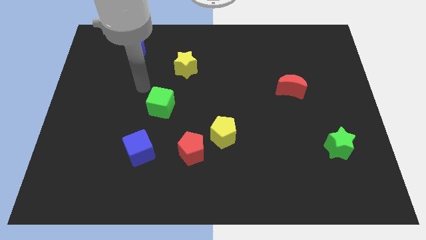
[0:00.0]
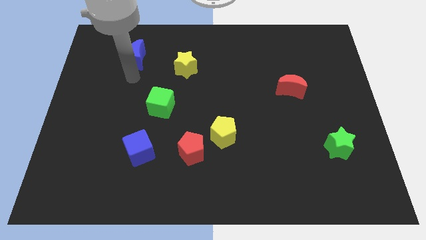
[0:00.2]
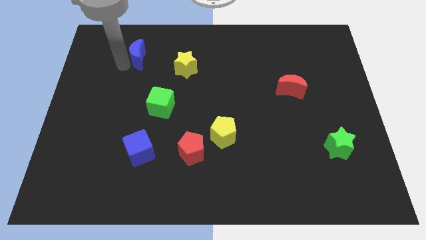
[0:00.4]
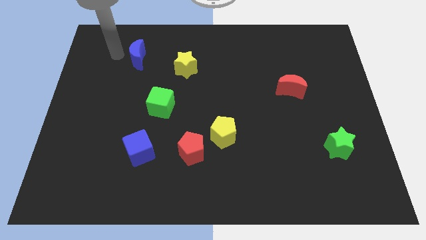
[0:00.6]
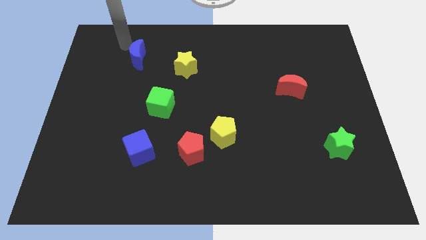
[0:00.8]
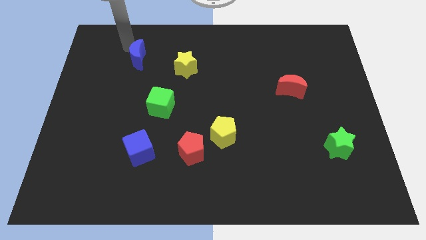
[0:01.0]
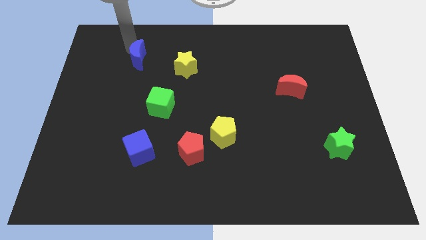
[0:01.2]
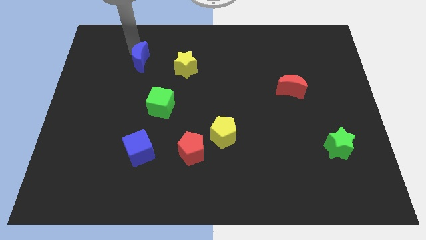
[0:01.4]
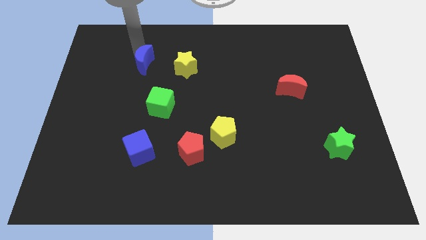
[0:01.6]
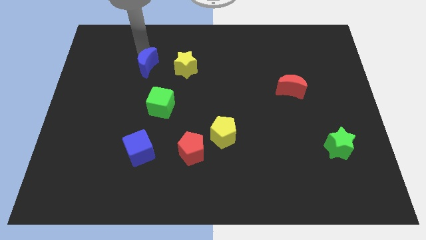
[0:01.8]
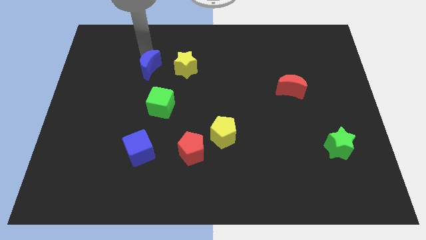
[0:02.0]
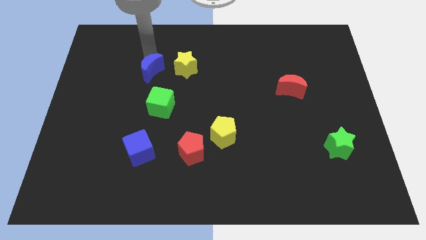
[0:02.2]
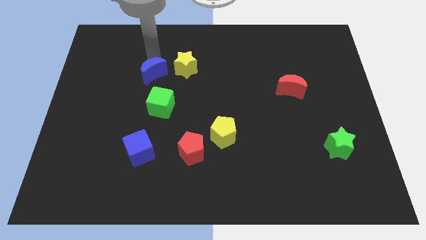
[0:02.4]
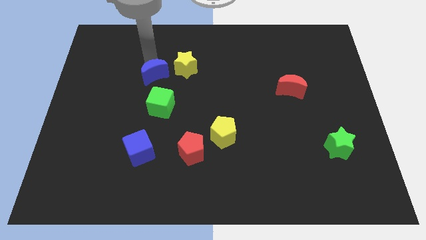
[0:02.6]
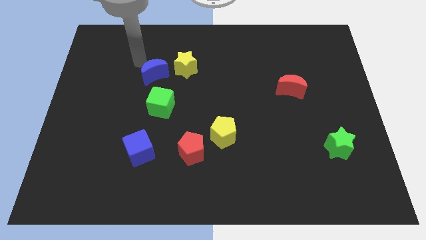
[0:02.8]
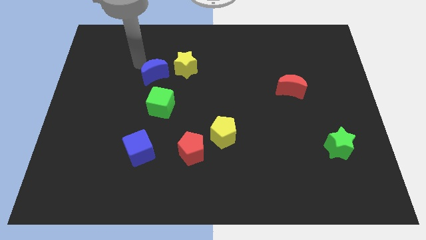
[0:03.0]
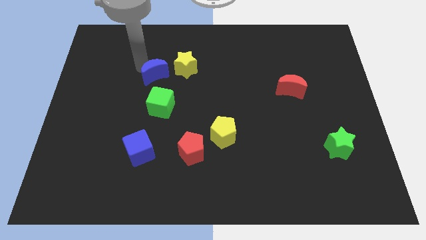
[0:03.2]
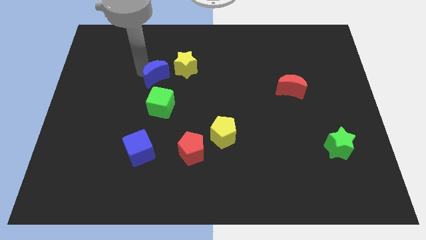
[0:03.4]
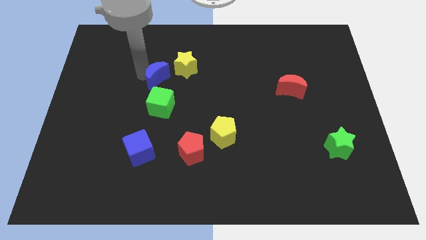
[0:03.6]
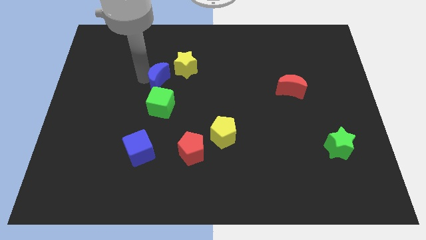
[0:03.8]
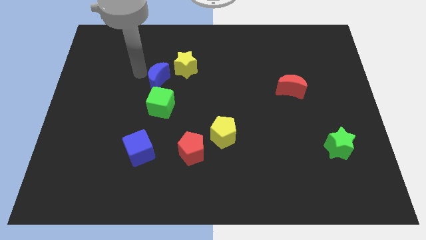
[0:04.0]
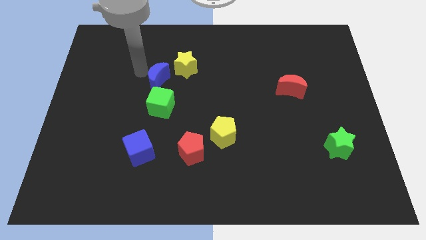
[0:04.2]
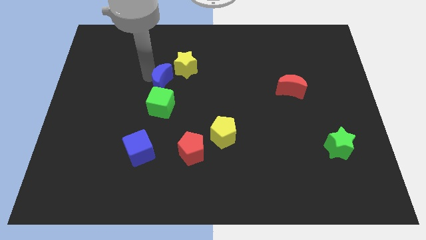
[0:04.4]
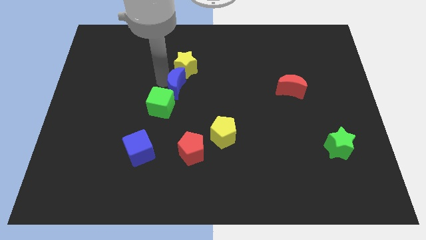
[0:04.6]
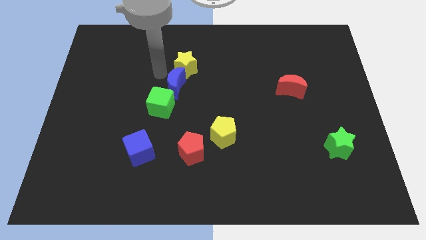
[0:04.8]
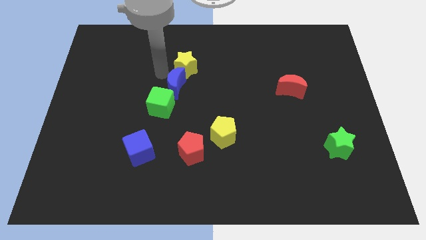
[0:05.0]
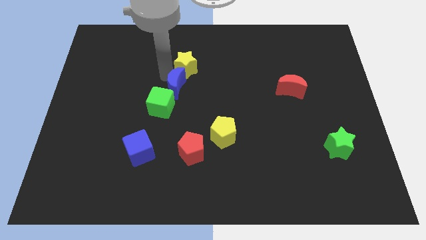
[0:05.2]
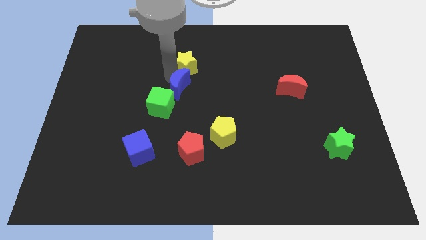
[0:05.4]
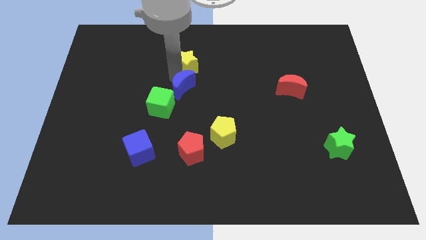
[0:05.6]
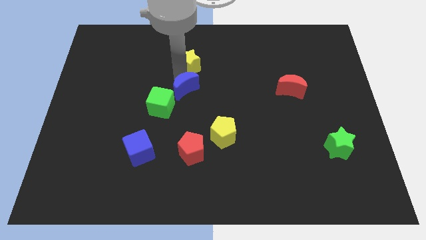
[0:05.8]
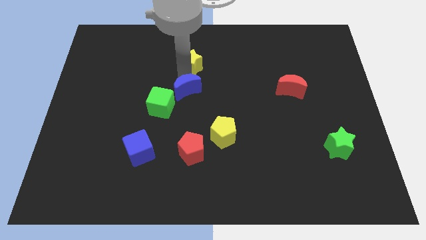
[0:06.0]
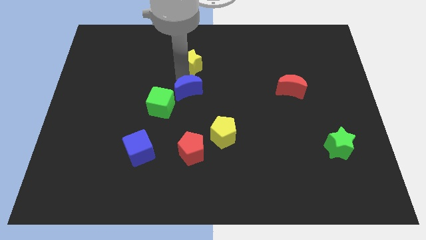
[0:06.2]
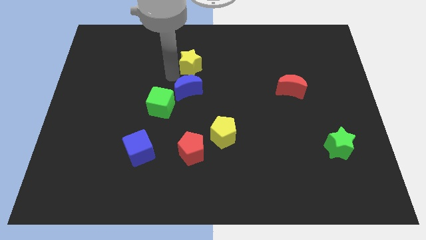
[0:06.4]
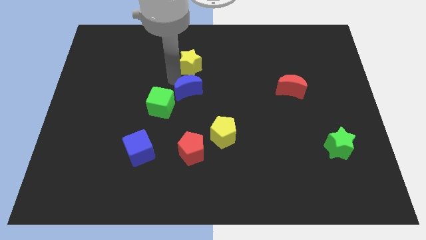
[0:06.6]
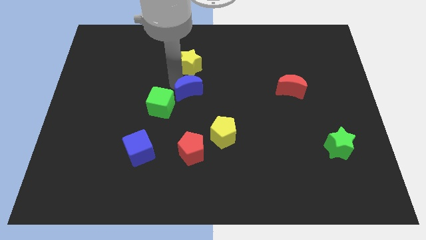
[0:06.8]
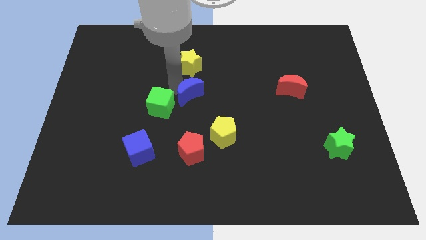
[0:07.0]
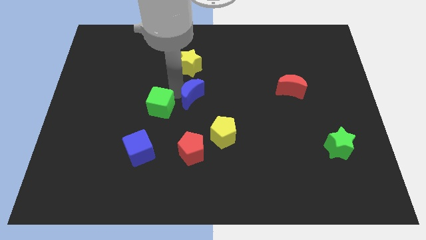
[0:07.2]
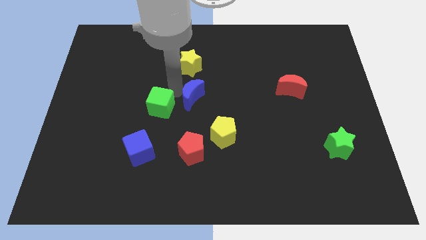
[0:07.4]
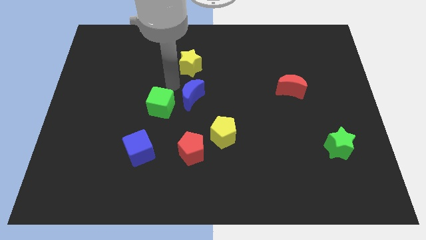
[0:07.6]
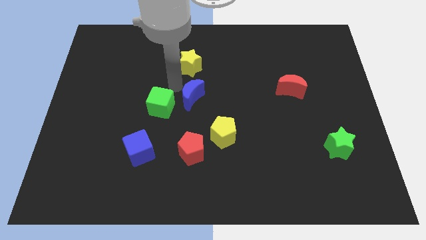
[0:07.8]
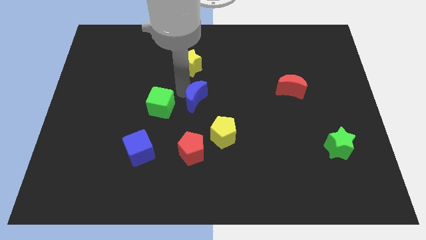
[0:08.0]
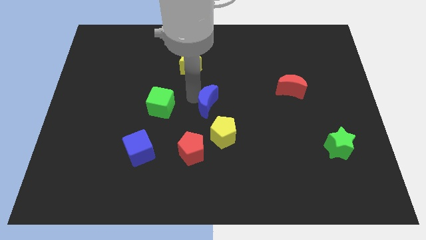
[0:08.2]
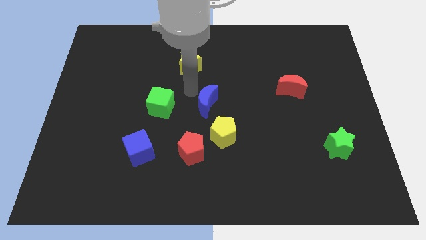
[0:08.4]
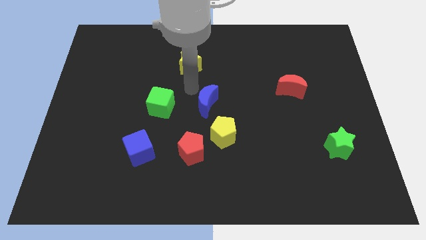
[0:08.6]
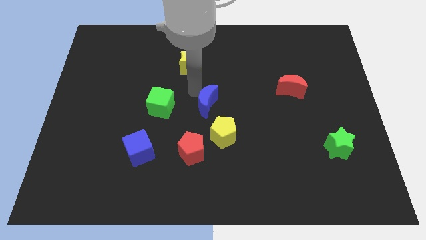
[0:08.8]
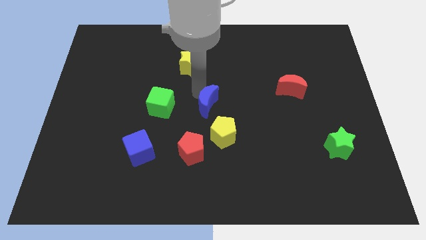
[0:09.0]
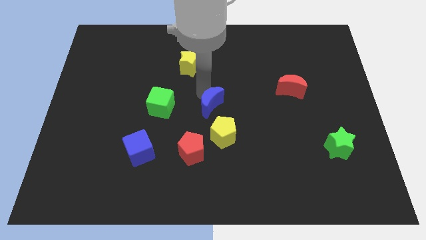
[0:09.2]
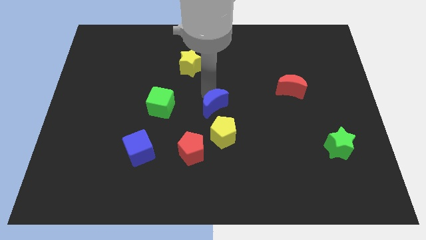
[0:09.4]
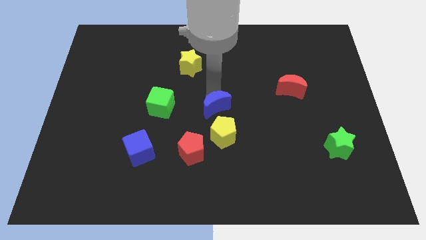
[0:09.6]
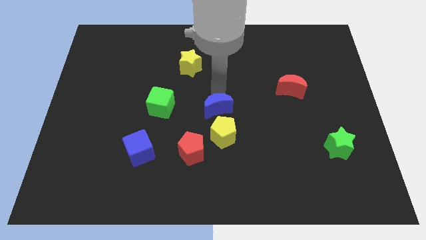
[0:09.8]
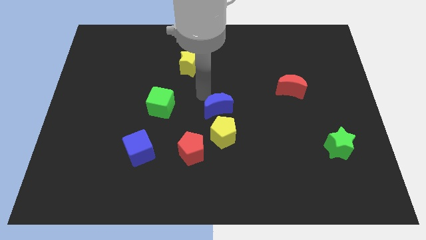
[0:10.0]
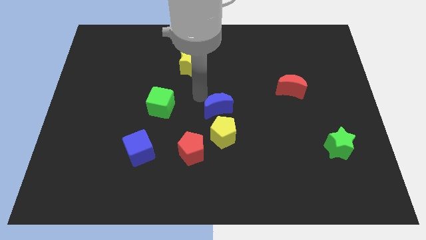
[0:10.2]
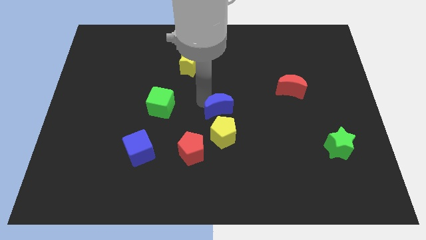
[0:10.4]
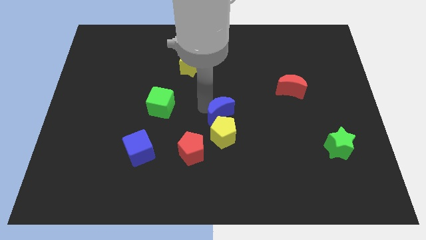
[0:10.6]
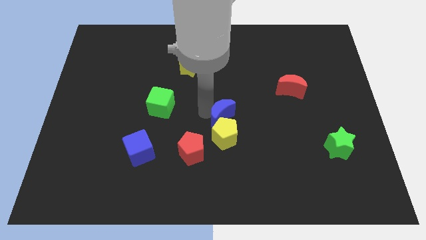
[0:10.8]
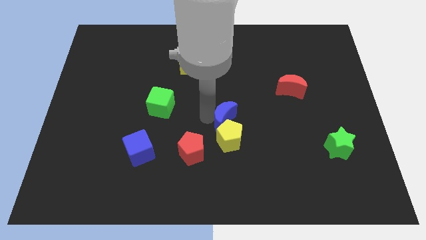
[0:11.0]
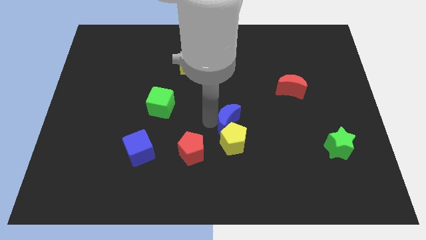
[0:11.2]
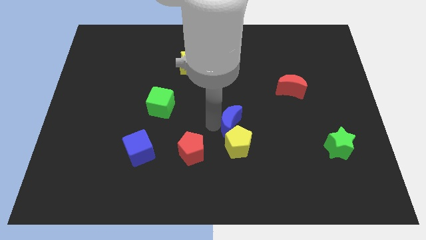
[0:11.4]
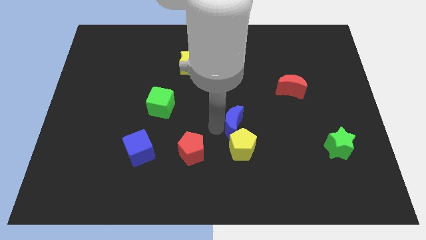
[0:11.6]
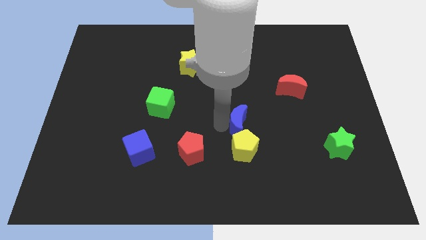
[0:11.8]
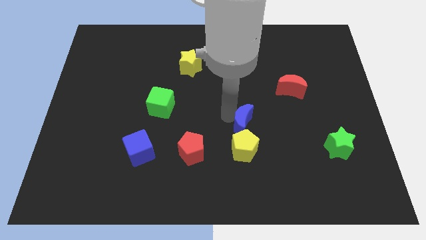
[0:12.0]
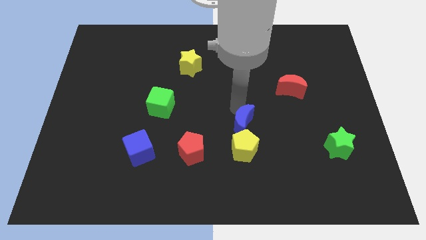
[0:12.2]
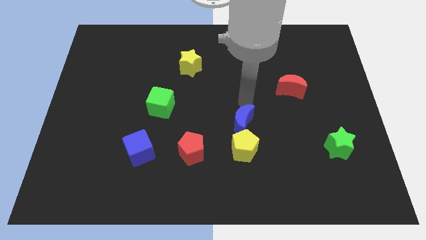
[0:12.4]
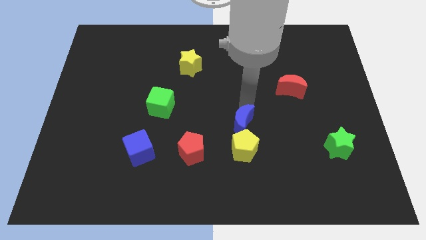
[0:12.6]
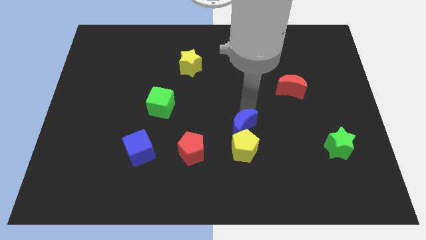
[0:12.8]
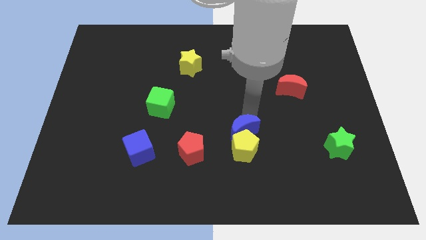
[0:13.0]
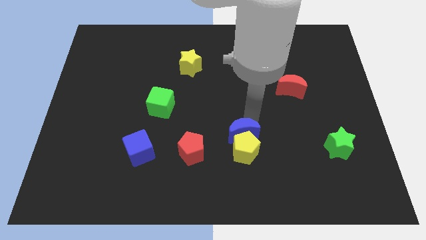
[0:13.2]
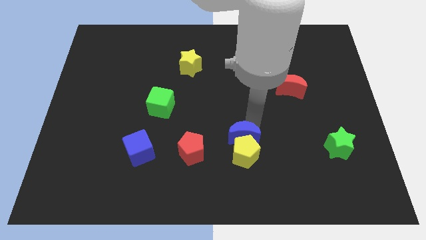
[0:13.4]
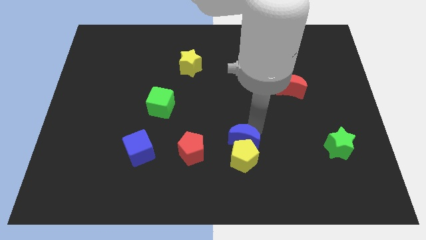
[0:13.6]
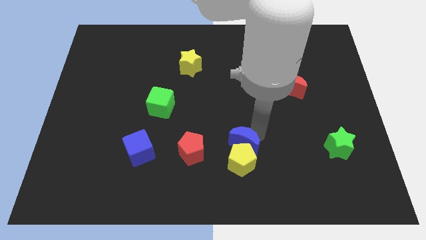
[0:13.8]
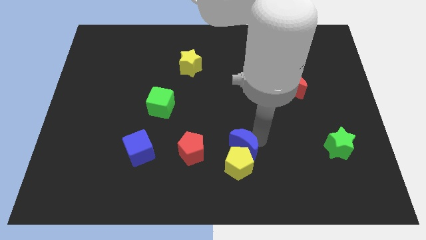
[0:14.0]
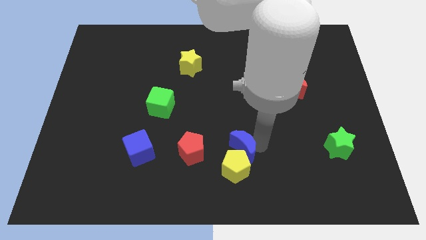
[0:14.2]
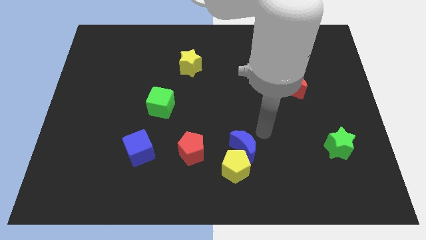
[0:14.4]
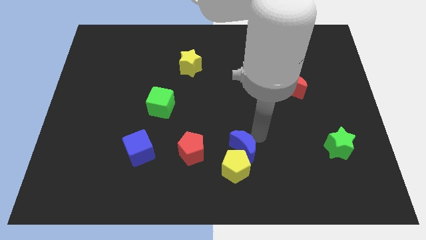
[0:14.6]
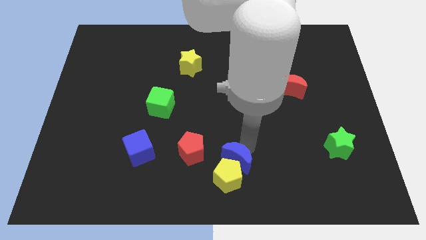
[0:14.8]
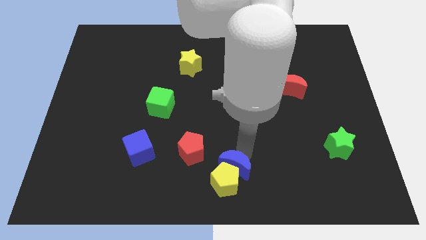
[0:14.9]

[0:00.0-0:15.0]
push the blue moon to the bottom right side of the red pentagon
